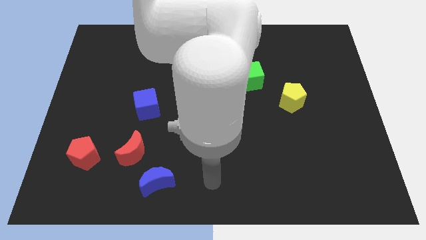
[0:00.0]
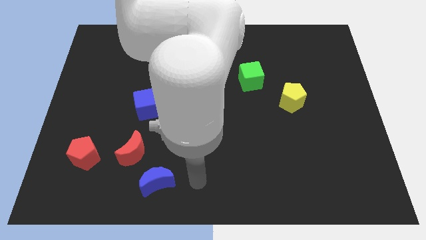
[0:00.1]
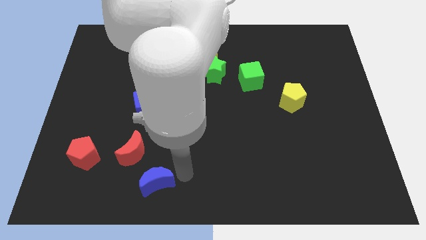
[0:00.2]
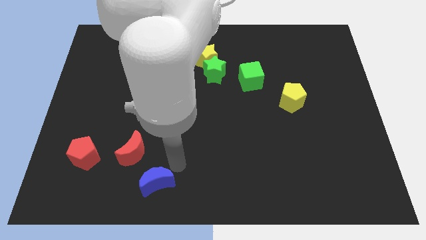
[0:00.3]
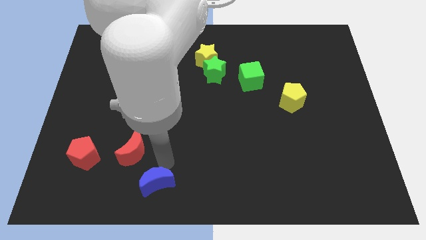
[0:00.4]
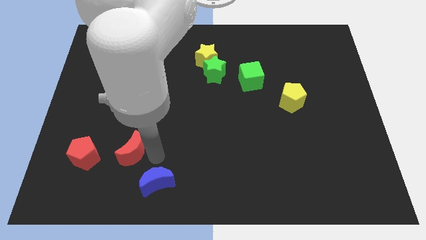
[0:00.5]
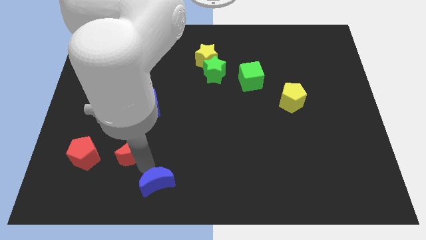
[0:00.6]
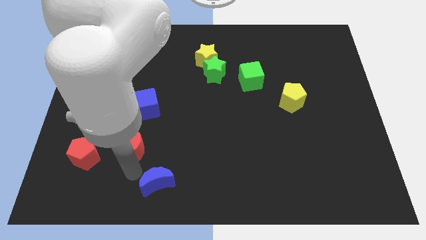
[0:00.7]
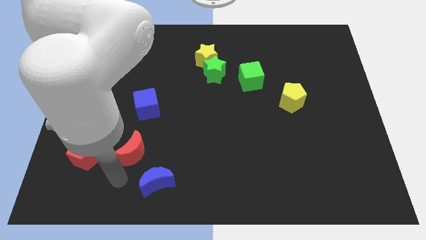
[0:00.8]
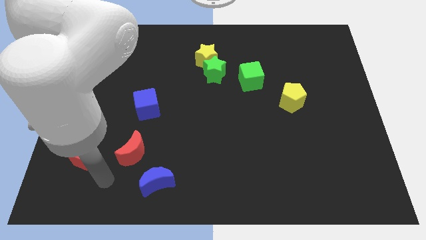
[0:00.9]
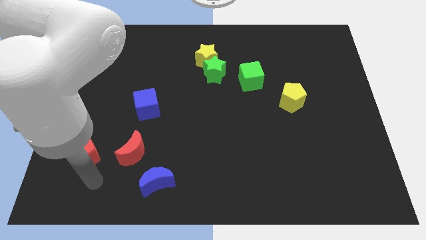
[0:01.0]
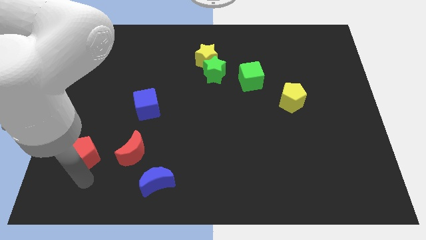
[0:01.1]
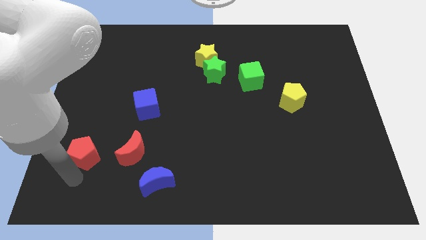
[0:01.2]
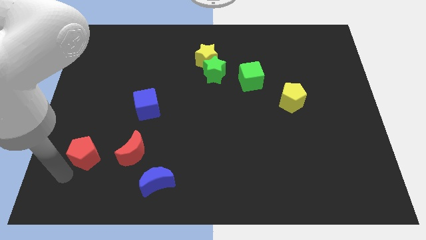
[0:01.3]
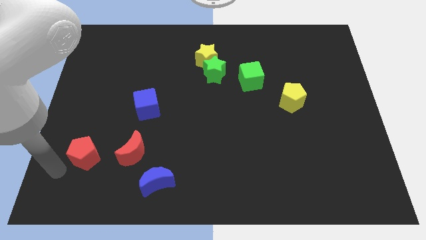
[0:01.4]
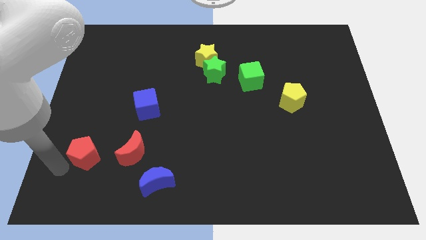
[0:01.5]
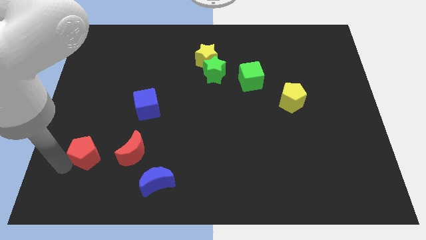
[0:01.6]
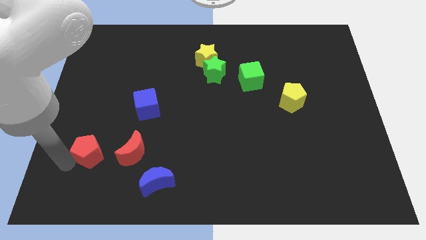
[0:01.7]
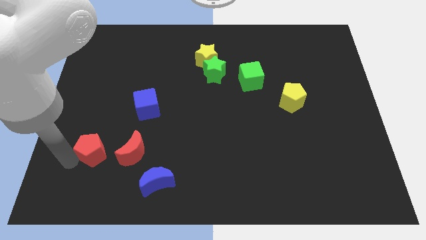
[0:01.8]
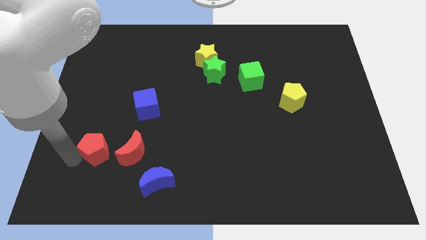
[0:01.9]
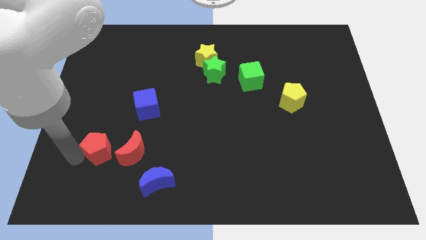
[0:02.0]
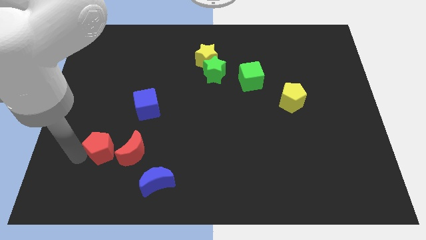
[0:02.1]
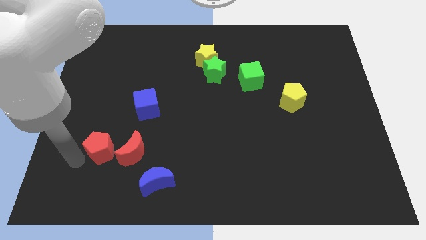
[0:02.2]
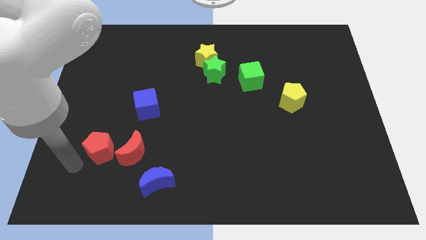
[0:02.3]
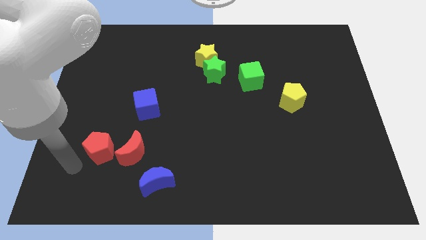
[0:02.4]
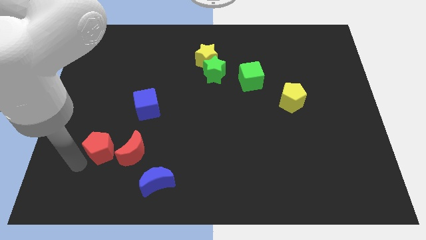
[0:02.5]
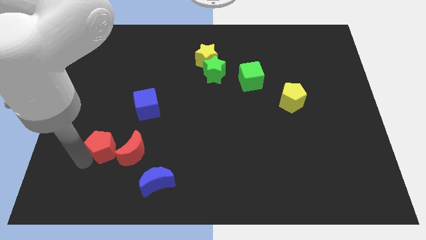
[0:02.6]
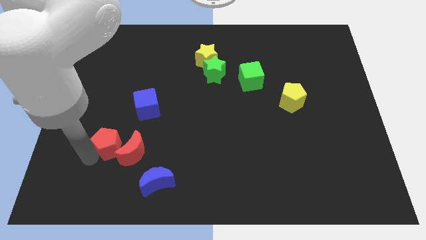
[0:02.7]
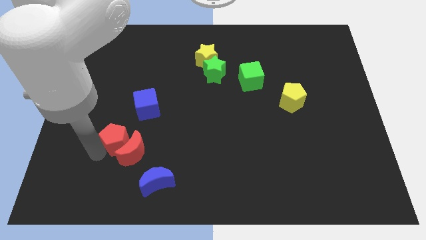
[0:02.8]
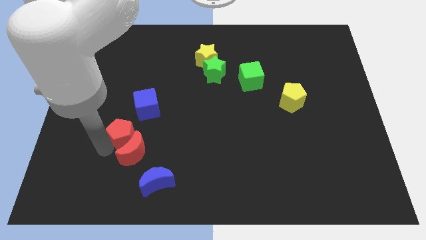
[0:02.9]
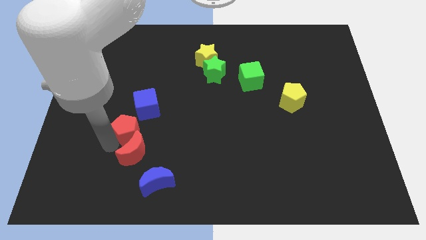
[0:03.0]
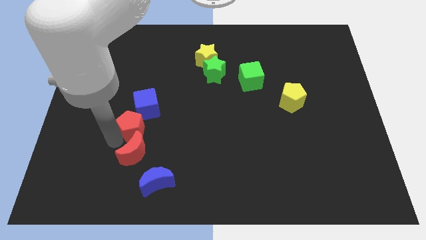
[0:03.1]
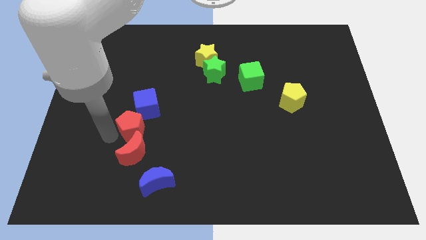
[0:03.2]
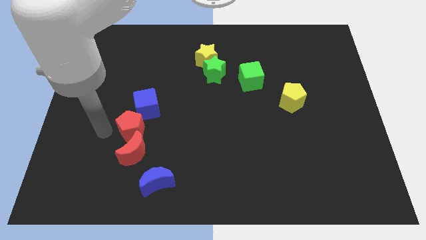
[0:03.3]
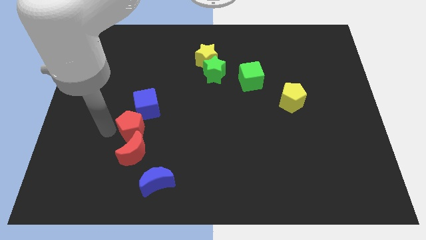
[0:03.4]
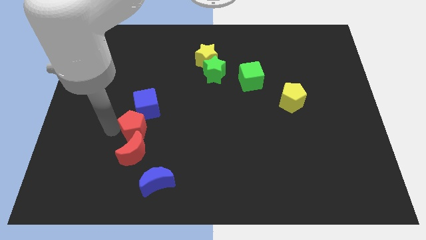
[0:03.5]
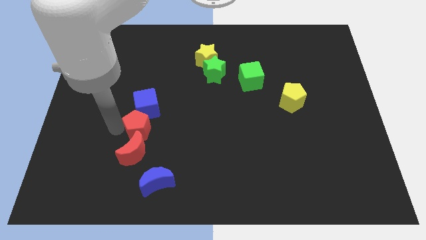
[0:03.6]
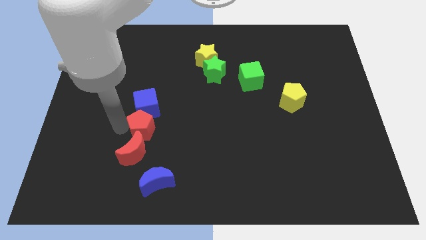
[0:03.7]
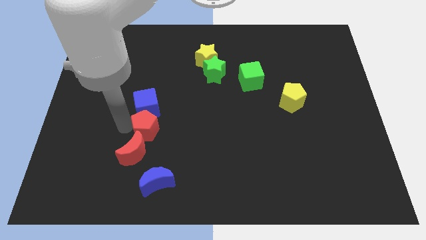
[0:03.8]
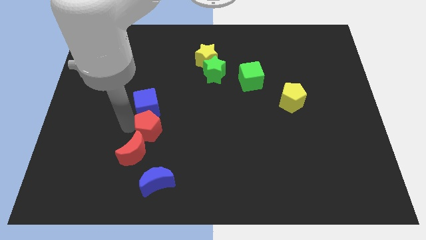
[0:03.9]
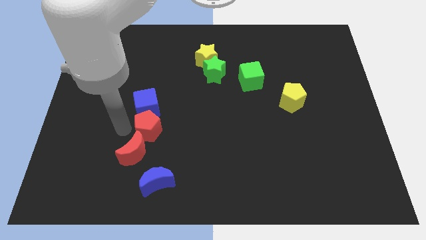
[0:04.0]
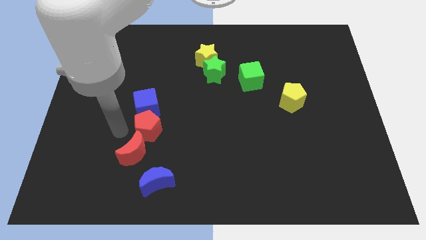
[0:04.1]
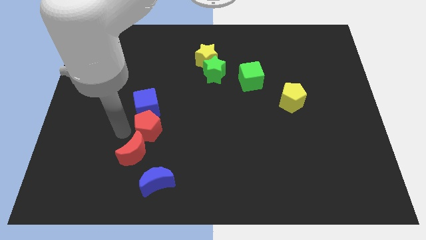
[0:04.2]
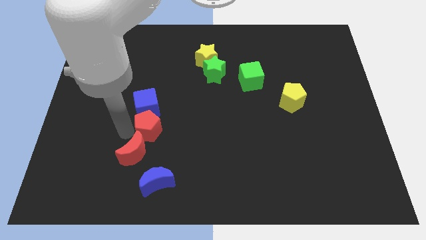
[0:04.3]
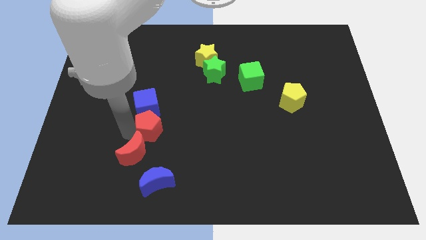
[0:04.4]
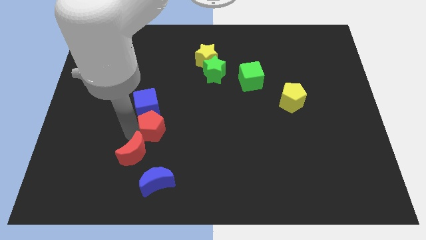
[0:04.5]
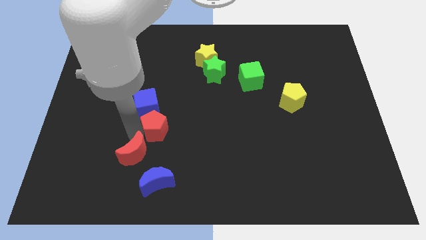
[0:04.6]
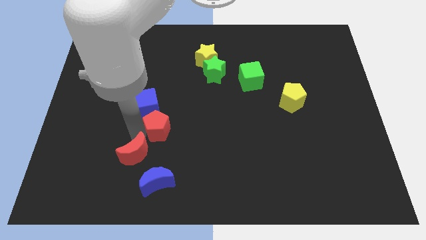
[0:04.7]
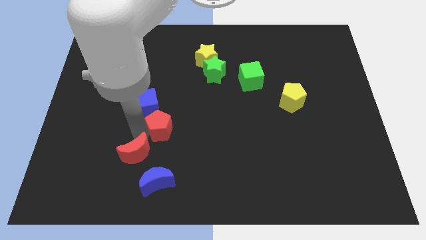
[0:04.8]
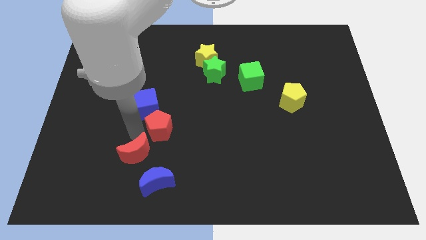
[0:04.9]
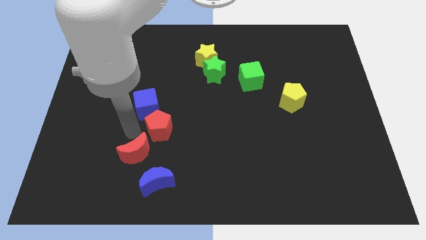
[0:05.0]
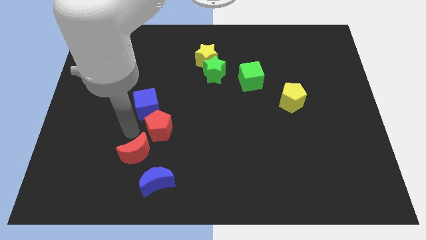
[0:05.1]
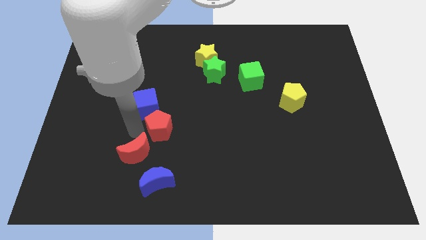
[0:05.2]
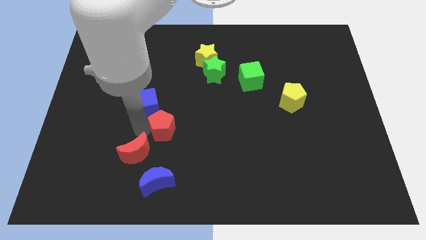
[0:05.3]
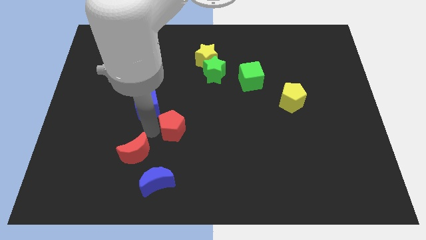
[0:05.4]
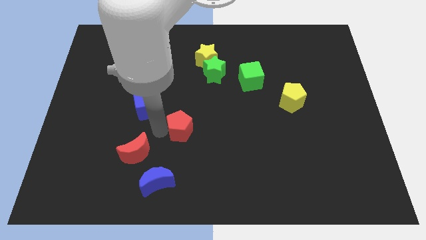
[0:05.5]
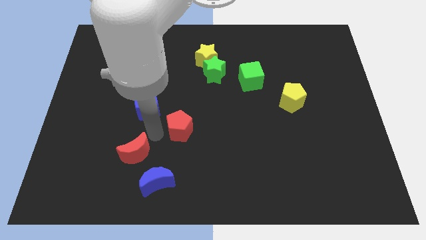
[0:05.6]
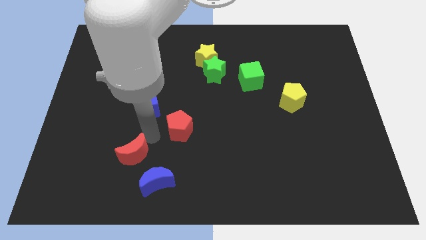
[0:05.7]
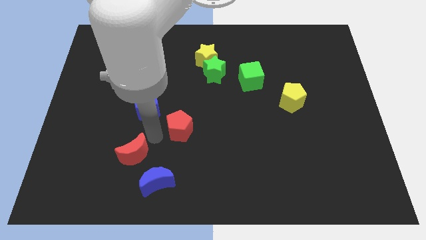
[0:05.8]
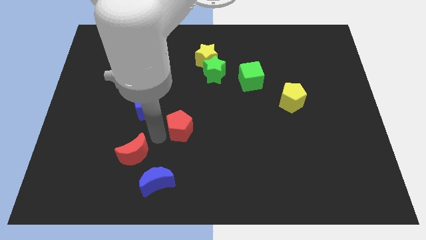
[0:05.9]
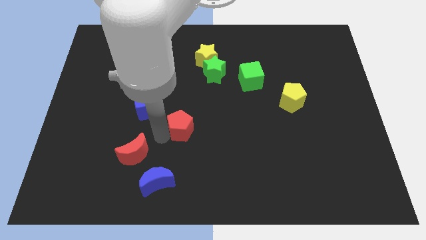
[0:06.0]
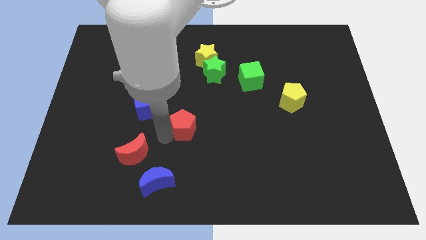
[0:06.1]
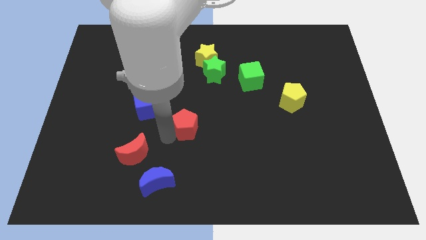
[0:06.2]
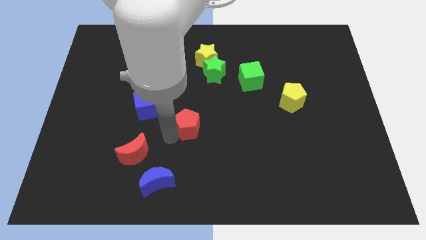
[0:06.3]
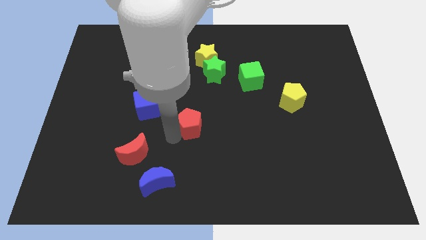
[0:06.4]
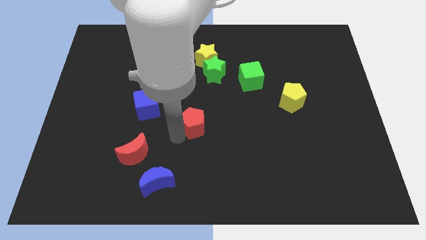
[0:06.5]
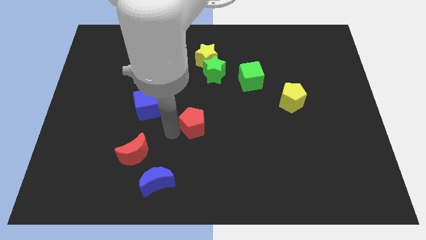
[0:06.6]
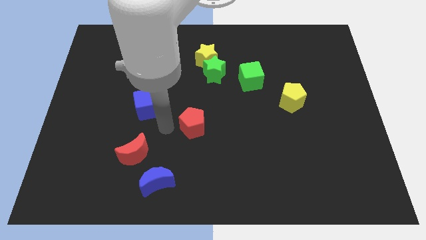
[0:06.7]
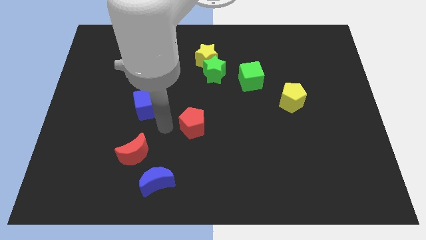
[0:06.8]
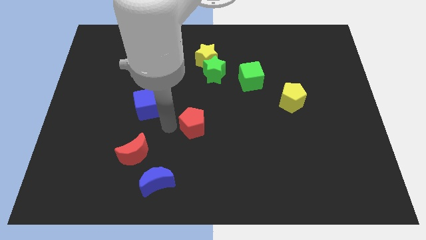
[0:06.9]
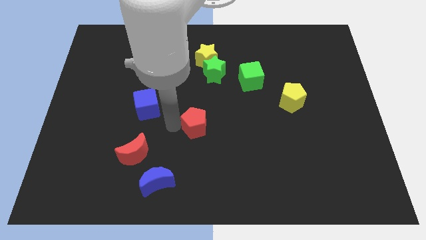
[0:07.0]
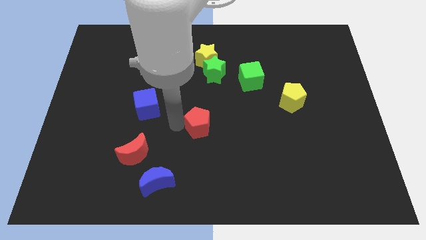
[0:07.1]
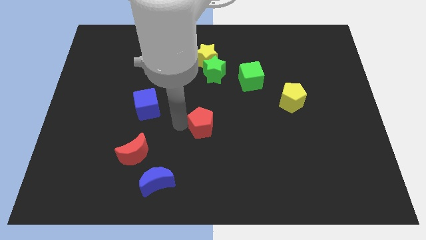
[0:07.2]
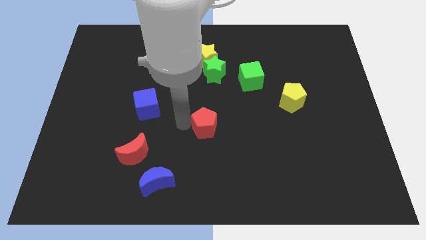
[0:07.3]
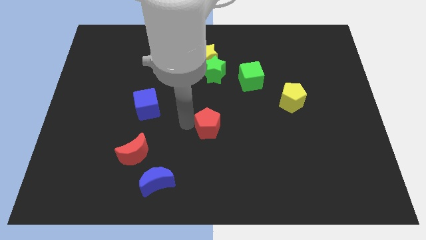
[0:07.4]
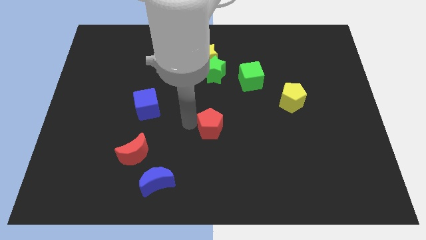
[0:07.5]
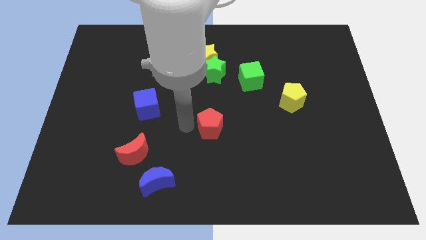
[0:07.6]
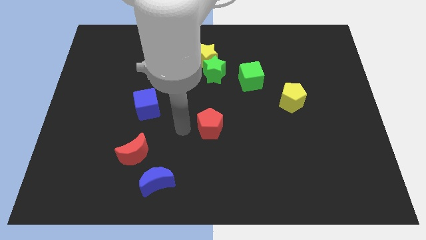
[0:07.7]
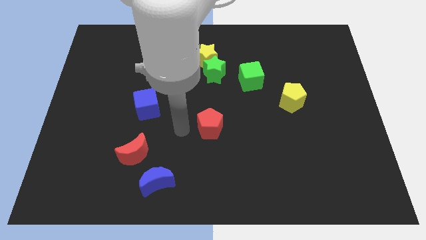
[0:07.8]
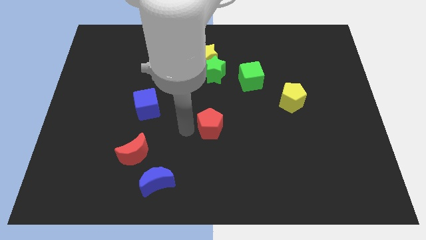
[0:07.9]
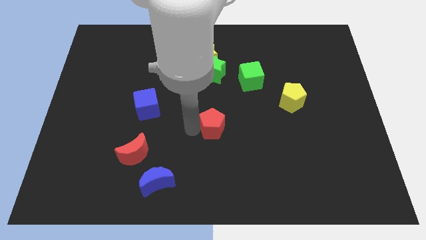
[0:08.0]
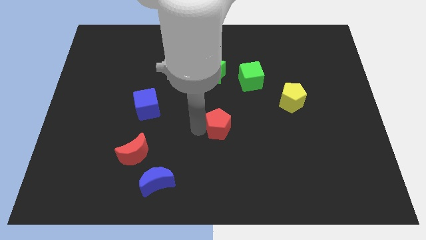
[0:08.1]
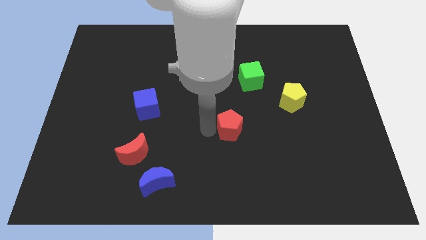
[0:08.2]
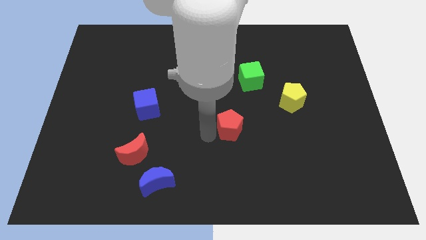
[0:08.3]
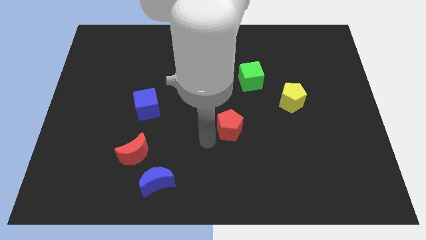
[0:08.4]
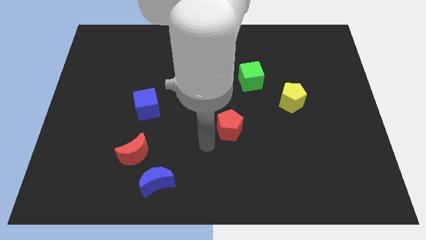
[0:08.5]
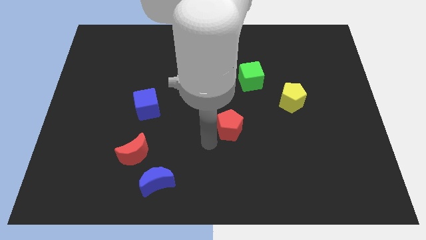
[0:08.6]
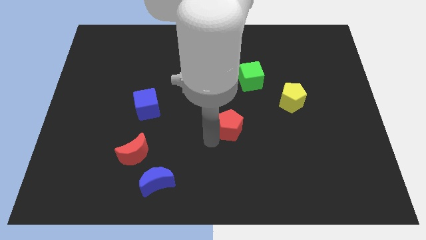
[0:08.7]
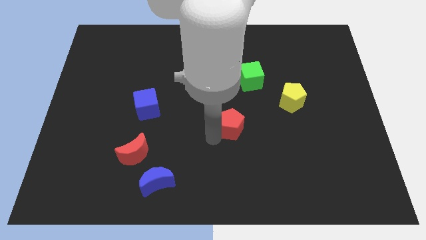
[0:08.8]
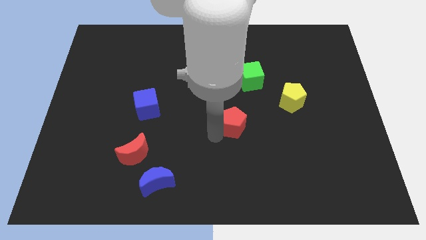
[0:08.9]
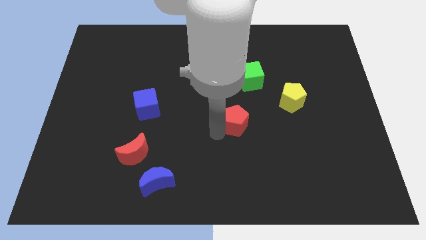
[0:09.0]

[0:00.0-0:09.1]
put the red pentagon to the bottom of the green cube
